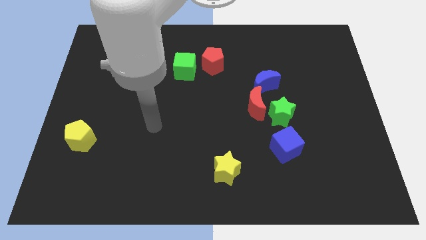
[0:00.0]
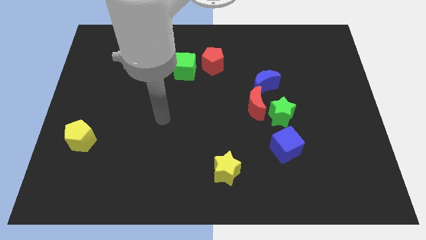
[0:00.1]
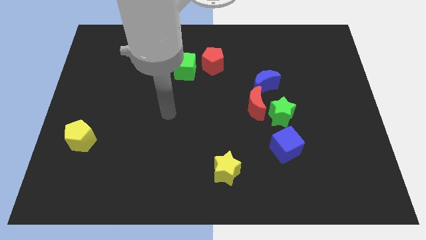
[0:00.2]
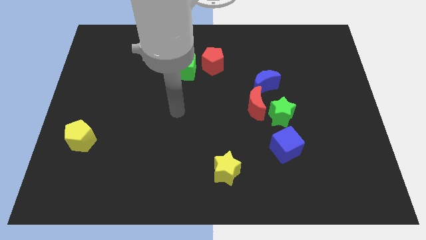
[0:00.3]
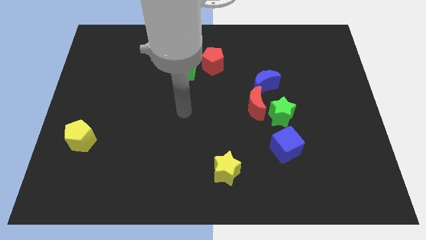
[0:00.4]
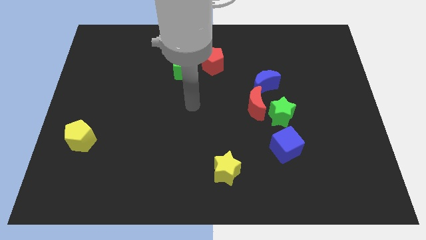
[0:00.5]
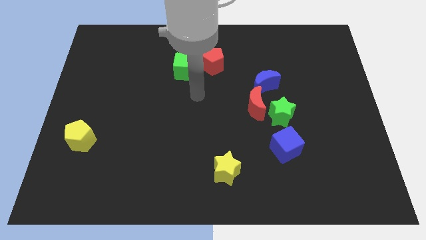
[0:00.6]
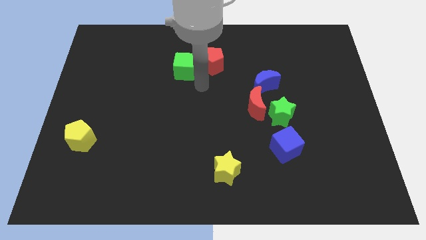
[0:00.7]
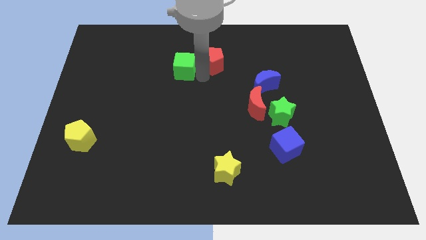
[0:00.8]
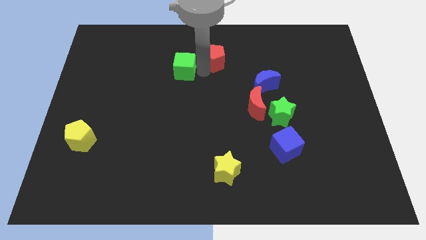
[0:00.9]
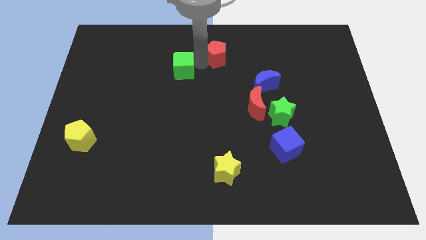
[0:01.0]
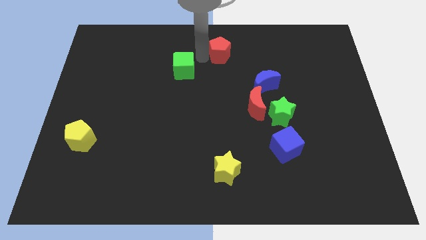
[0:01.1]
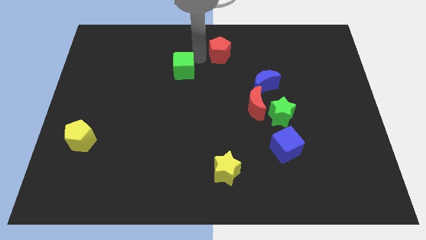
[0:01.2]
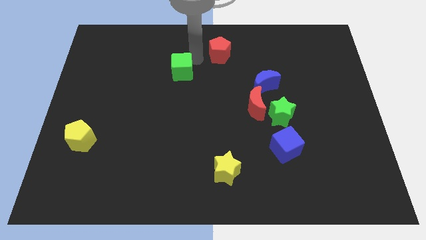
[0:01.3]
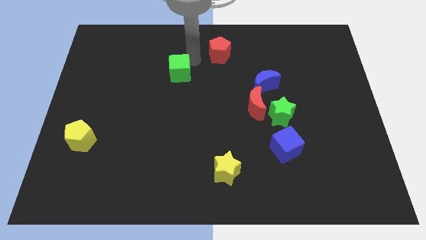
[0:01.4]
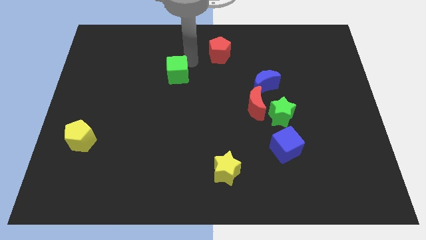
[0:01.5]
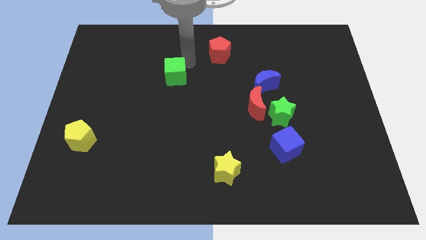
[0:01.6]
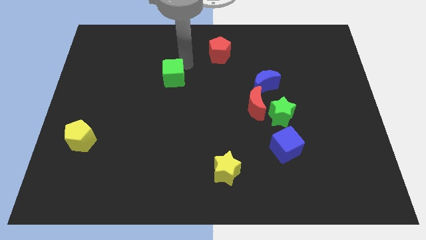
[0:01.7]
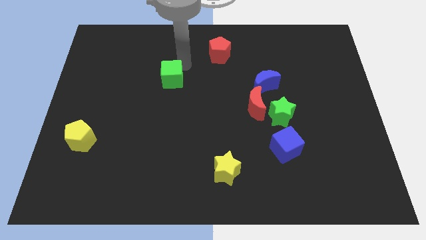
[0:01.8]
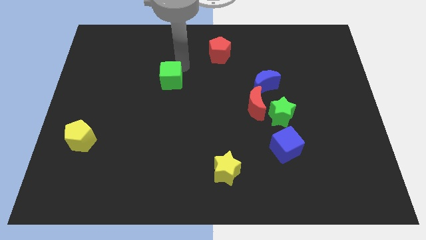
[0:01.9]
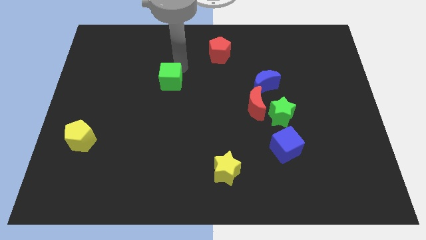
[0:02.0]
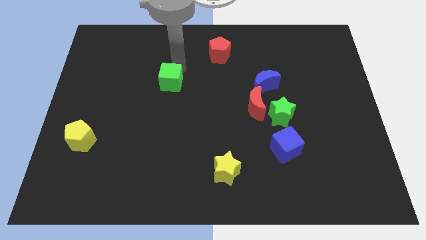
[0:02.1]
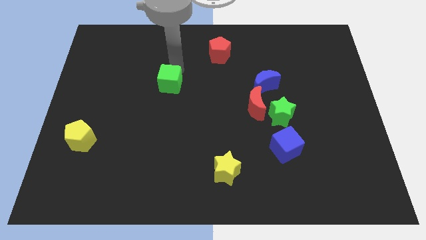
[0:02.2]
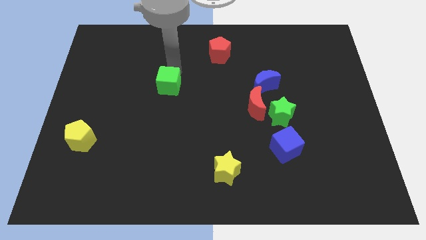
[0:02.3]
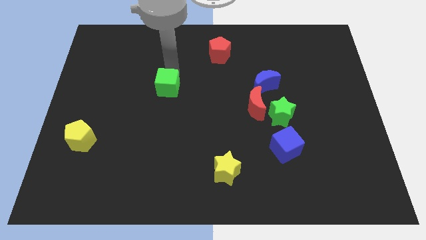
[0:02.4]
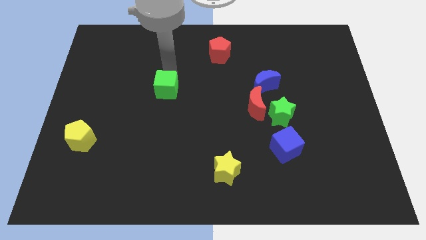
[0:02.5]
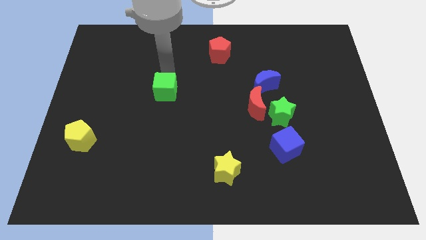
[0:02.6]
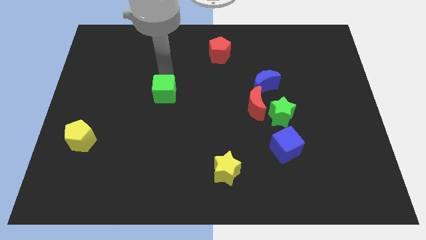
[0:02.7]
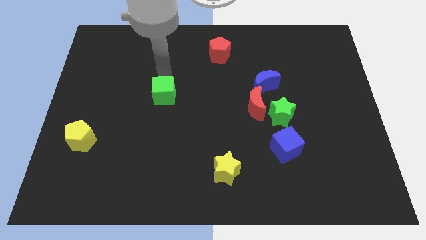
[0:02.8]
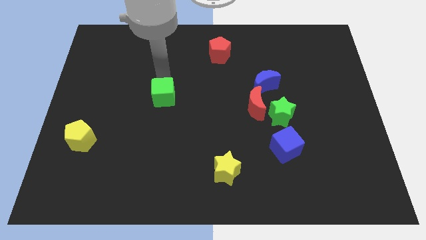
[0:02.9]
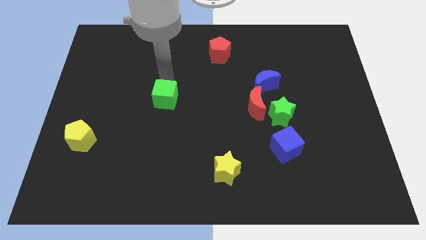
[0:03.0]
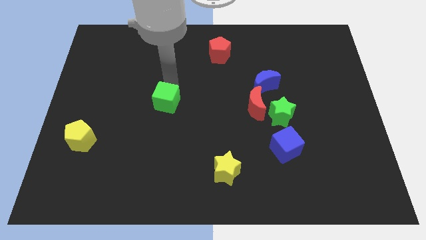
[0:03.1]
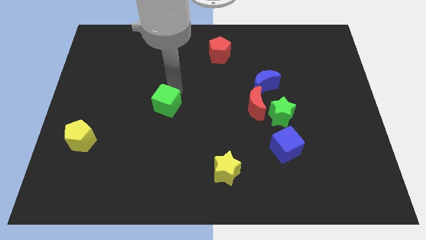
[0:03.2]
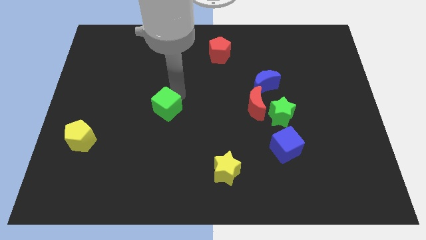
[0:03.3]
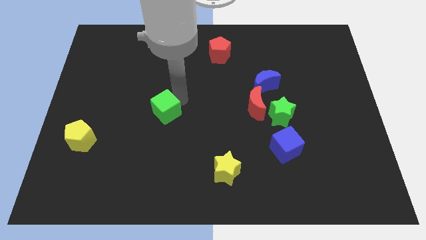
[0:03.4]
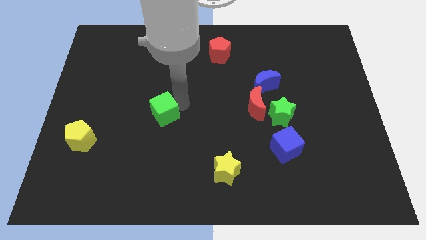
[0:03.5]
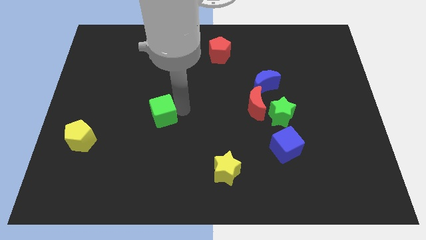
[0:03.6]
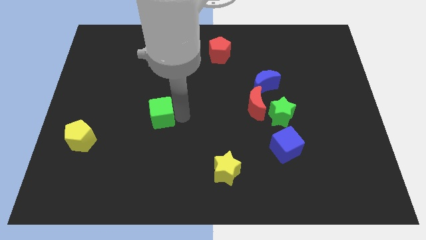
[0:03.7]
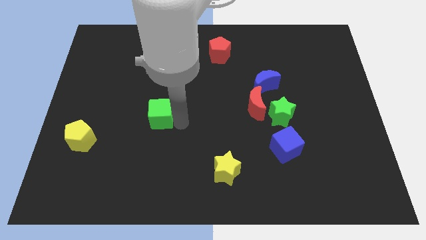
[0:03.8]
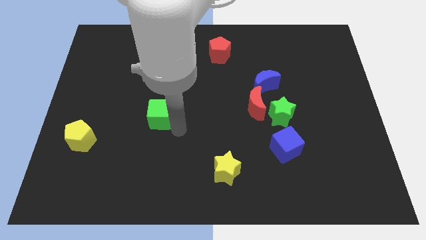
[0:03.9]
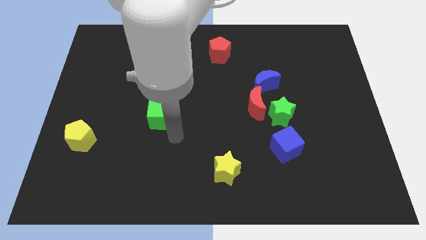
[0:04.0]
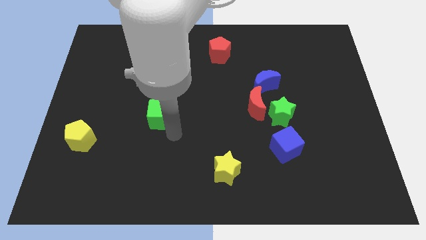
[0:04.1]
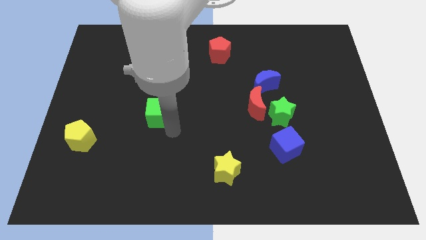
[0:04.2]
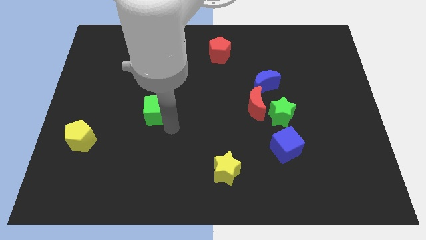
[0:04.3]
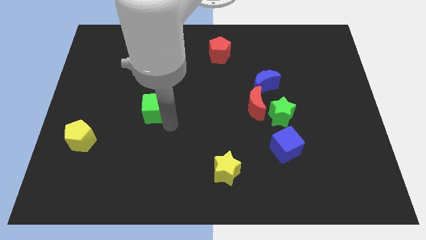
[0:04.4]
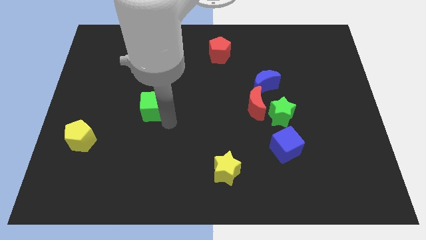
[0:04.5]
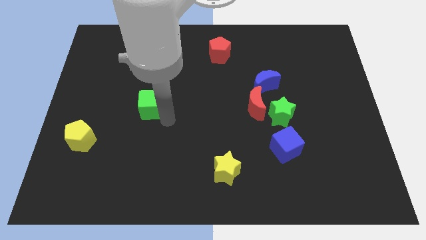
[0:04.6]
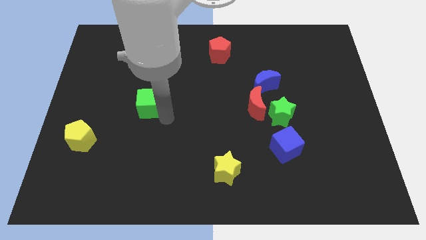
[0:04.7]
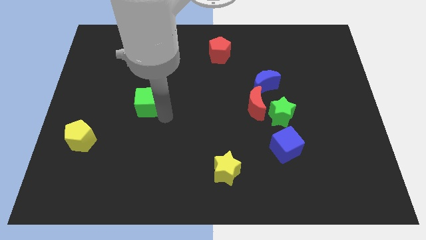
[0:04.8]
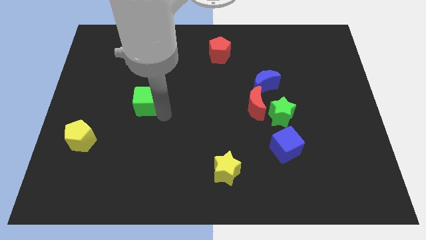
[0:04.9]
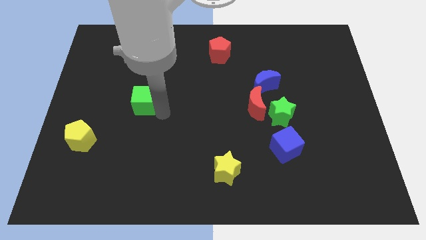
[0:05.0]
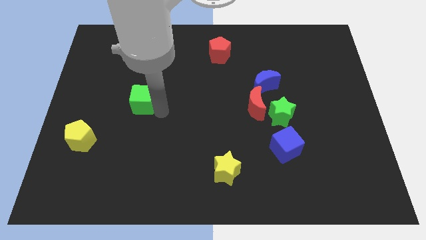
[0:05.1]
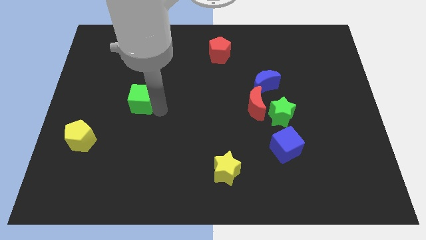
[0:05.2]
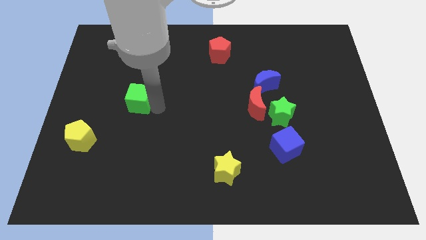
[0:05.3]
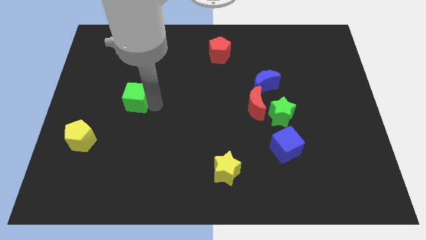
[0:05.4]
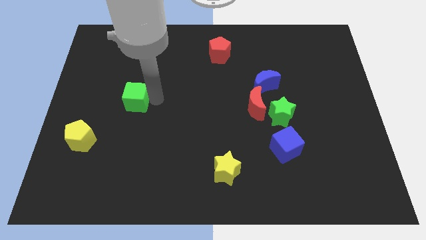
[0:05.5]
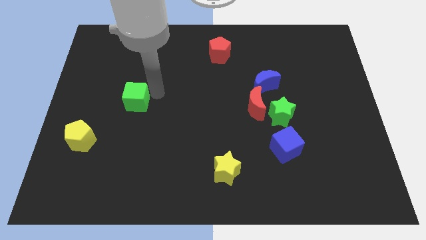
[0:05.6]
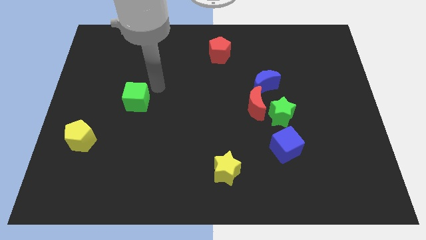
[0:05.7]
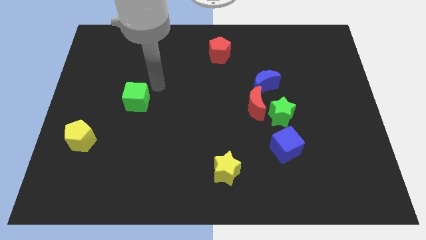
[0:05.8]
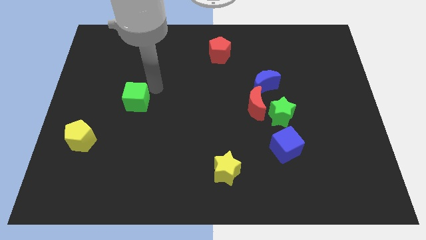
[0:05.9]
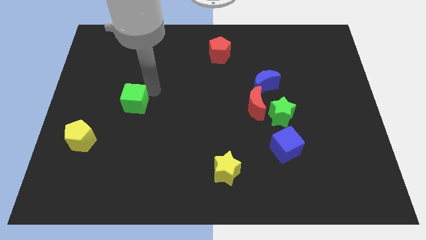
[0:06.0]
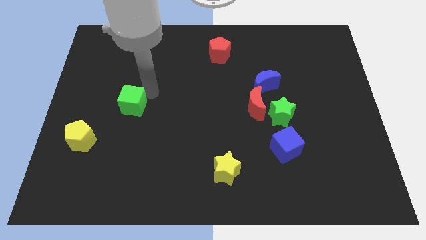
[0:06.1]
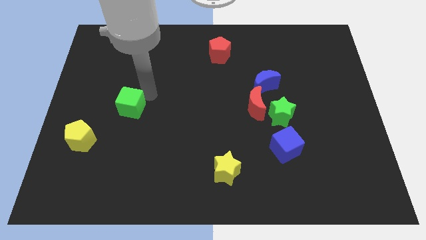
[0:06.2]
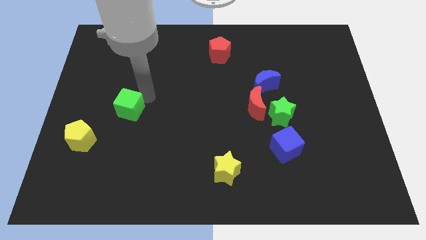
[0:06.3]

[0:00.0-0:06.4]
put the green cube diagonally up and to the right of the yellow pentagon

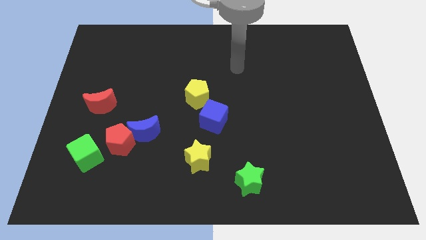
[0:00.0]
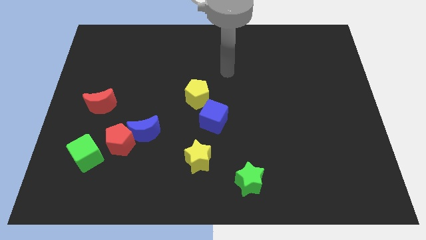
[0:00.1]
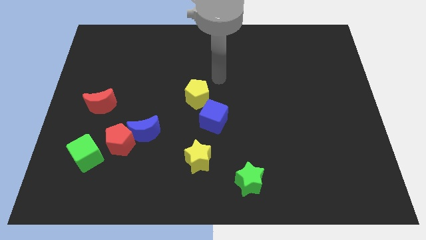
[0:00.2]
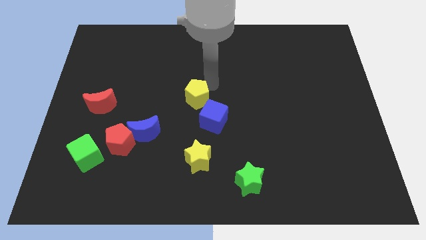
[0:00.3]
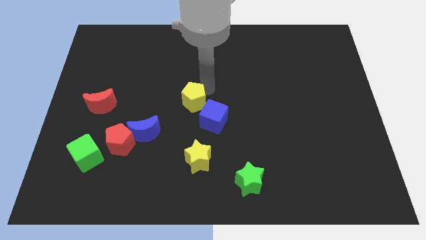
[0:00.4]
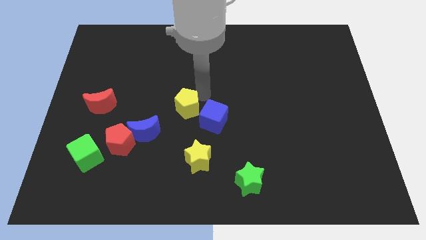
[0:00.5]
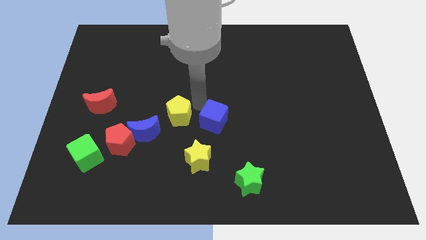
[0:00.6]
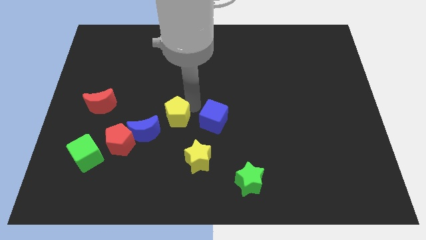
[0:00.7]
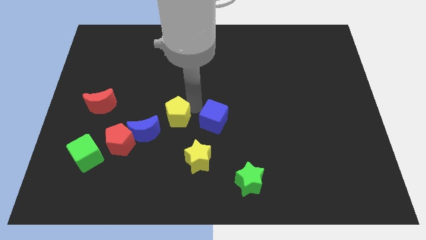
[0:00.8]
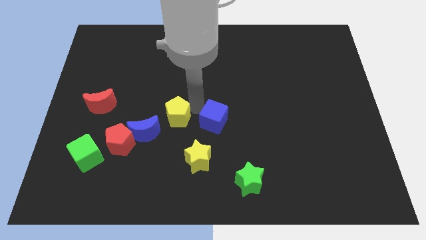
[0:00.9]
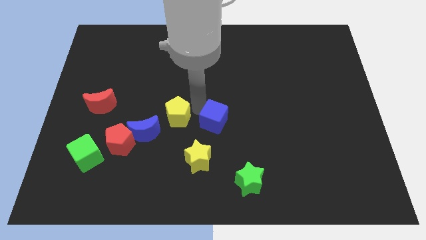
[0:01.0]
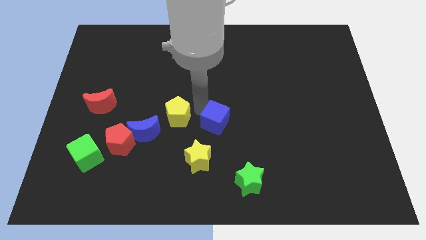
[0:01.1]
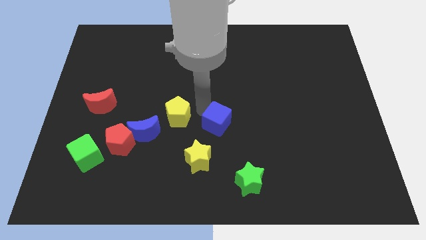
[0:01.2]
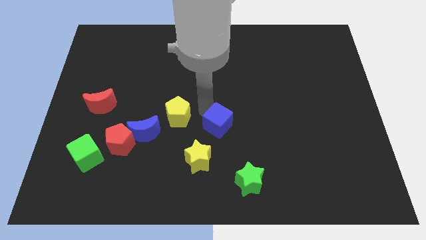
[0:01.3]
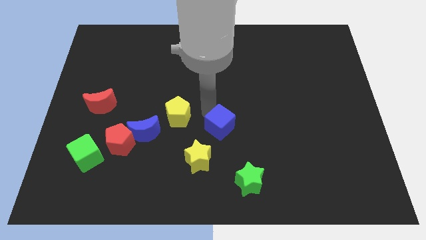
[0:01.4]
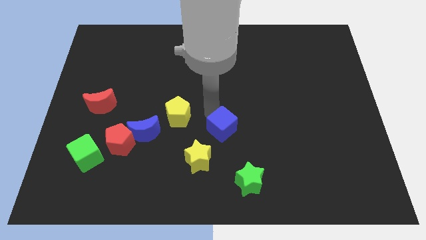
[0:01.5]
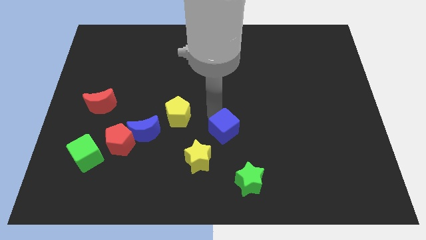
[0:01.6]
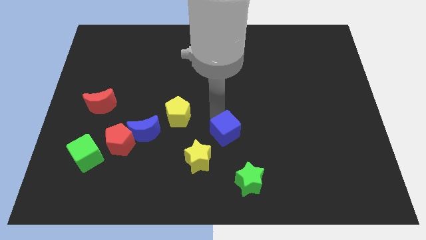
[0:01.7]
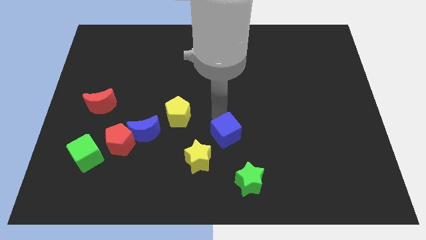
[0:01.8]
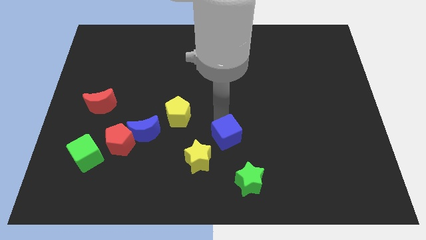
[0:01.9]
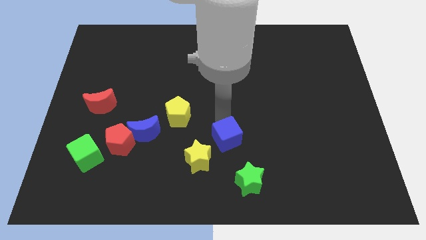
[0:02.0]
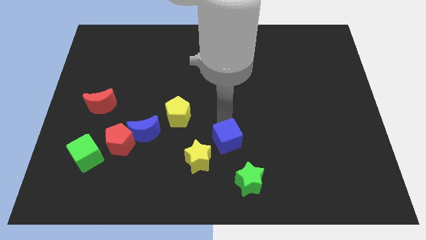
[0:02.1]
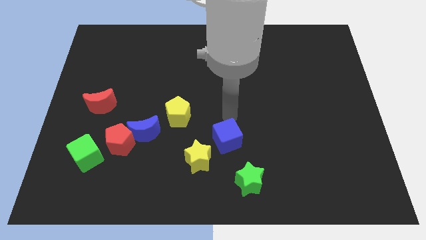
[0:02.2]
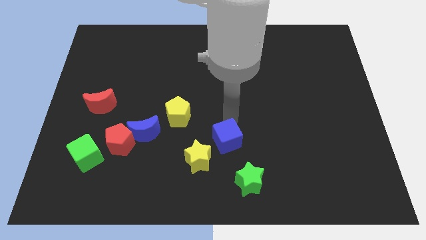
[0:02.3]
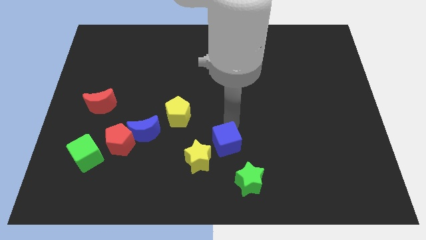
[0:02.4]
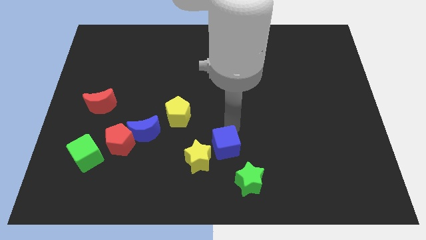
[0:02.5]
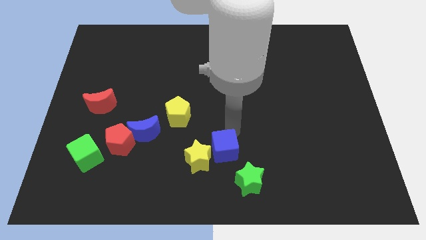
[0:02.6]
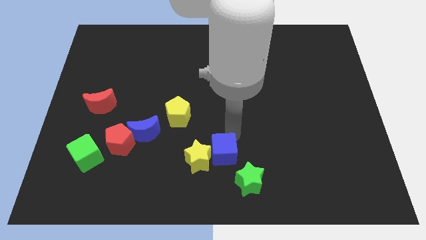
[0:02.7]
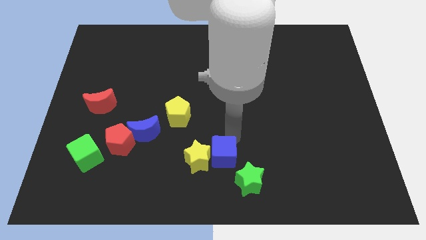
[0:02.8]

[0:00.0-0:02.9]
move the blue cube diagonally down and to the right of the yellow star
